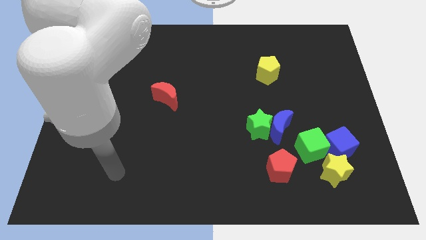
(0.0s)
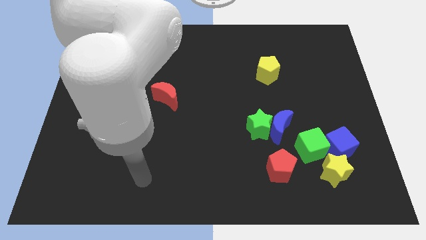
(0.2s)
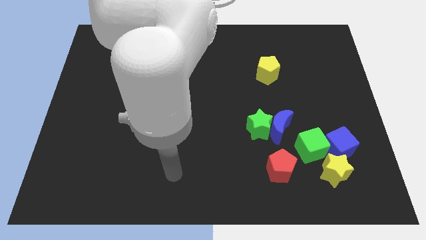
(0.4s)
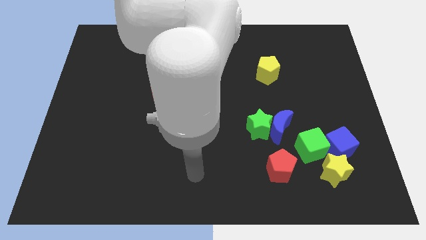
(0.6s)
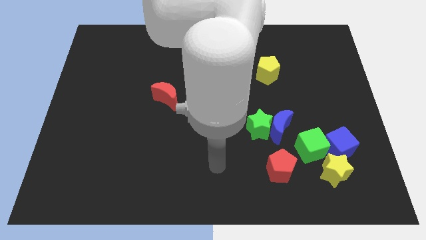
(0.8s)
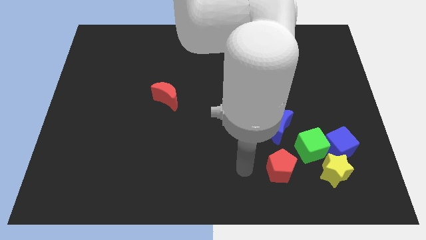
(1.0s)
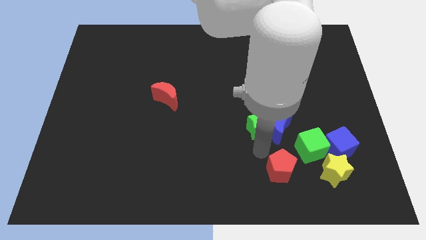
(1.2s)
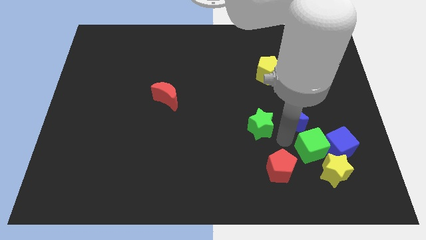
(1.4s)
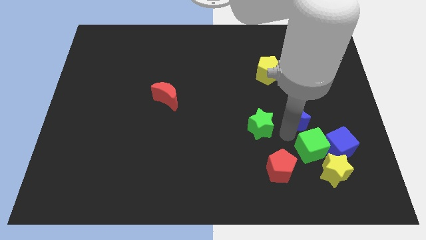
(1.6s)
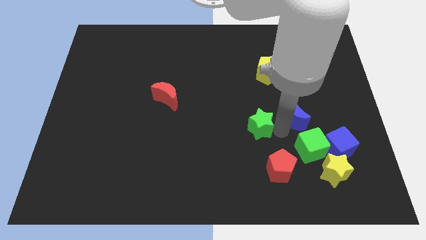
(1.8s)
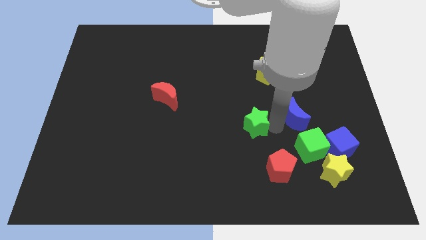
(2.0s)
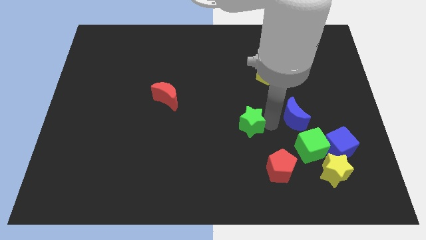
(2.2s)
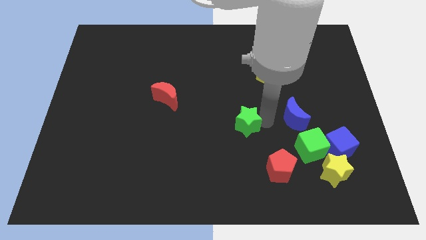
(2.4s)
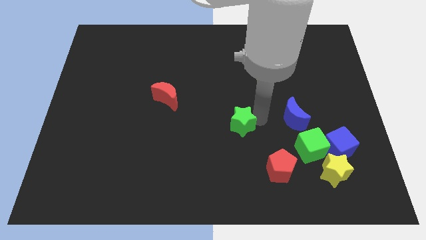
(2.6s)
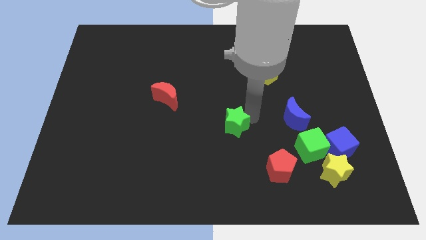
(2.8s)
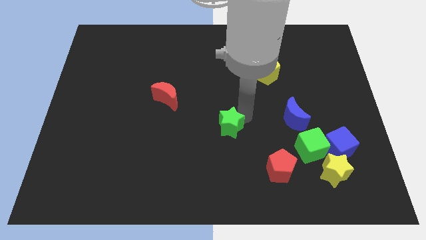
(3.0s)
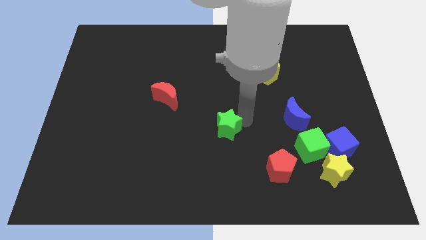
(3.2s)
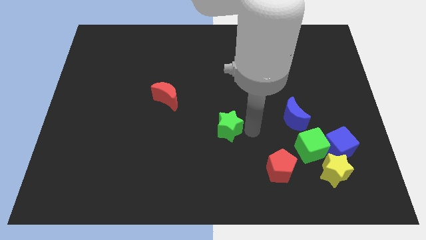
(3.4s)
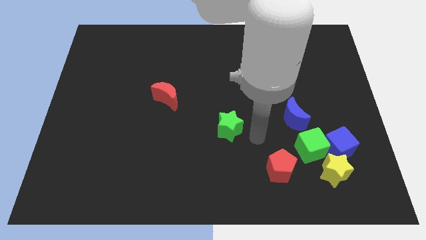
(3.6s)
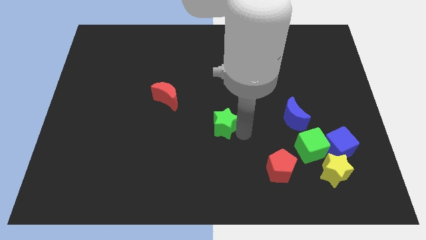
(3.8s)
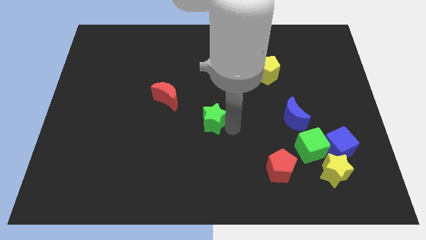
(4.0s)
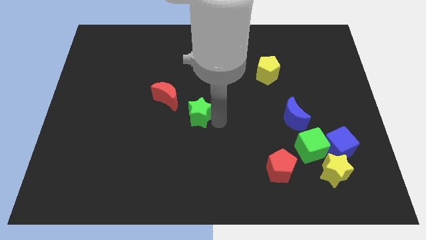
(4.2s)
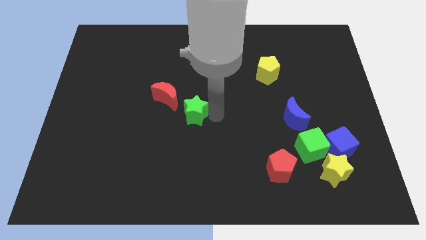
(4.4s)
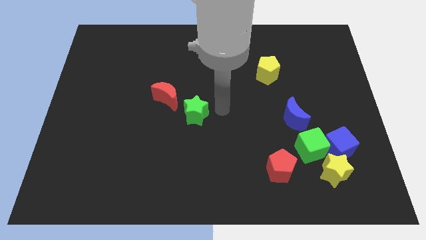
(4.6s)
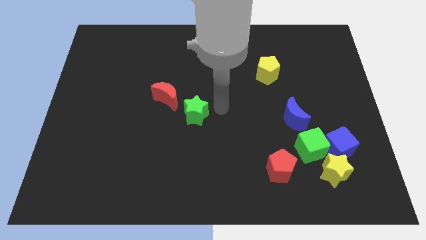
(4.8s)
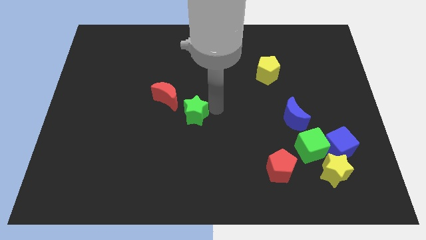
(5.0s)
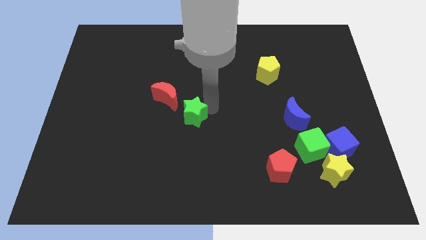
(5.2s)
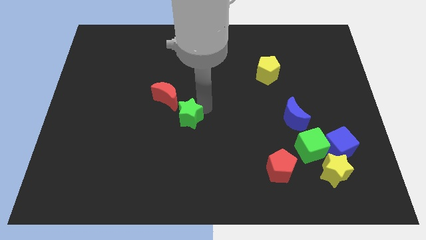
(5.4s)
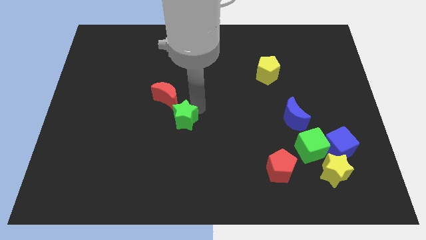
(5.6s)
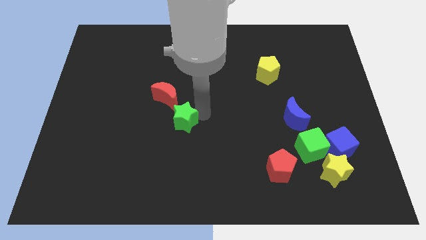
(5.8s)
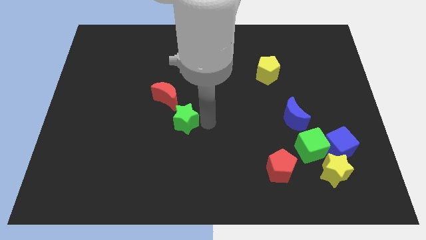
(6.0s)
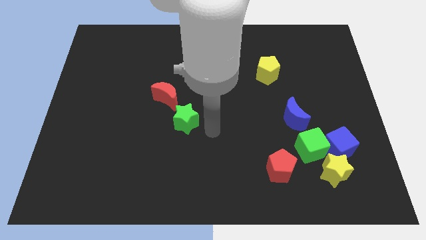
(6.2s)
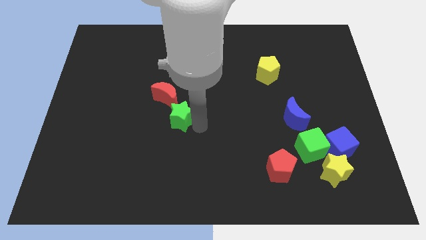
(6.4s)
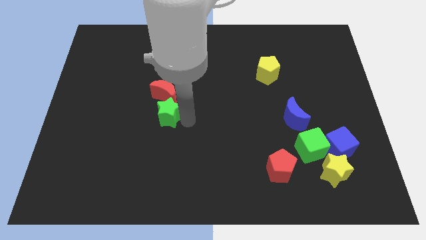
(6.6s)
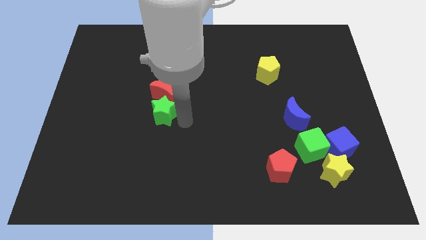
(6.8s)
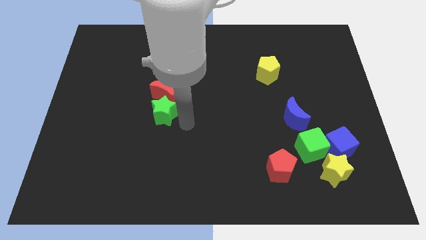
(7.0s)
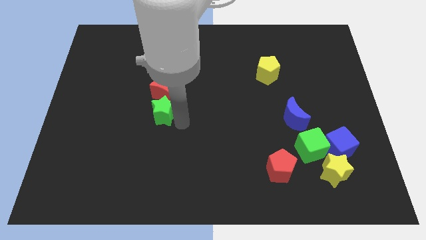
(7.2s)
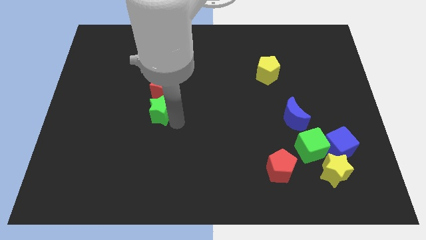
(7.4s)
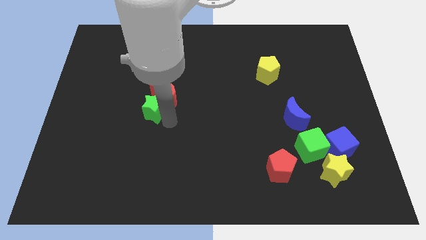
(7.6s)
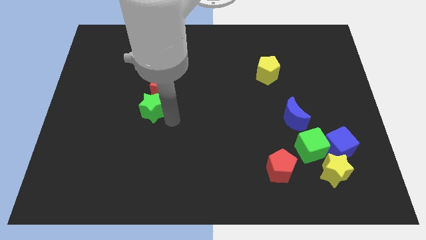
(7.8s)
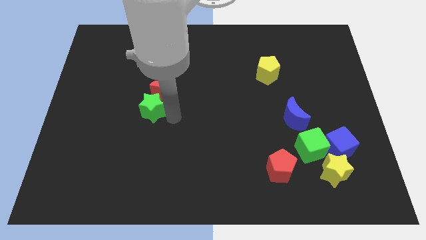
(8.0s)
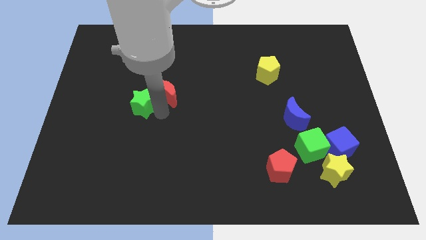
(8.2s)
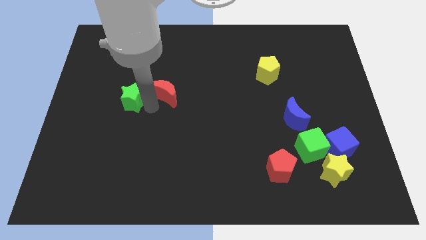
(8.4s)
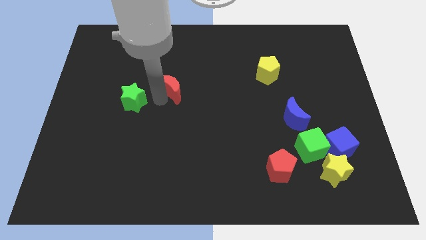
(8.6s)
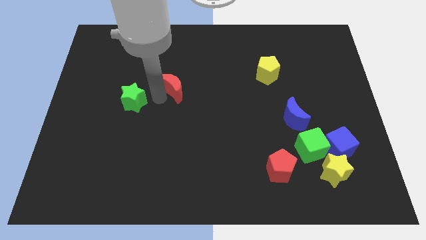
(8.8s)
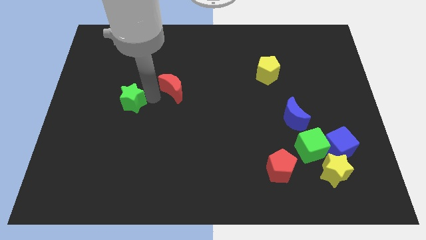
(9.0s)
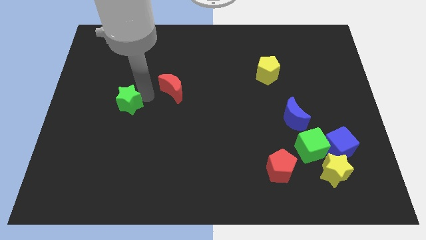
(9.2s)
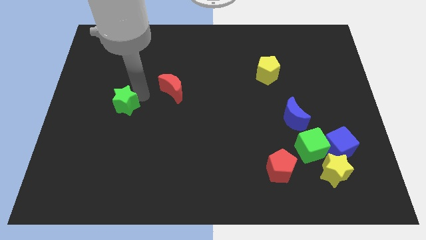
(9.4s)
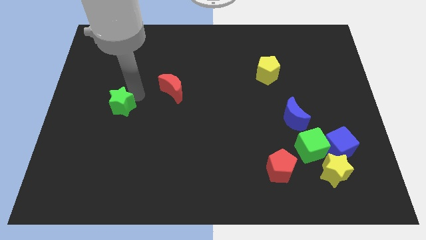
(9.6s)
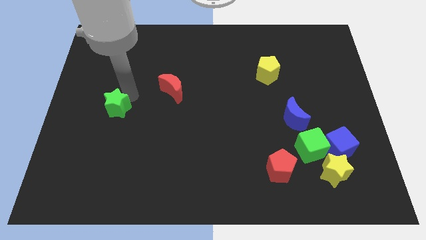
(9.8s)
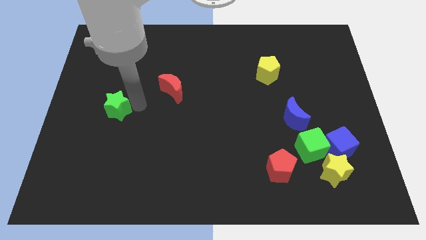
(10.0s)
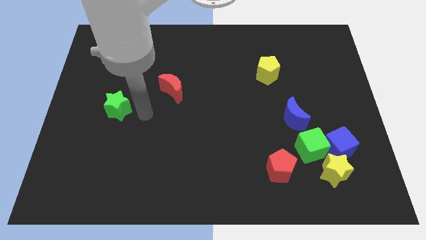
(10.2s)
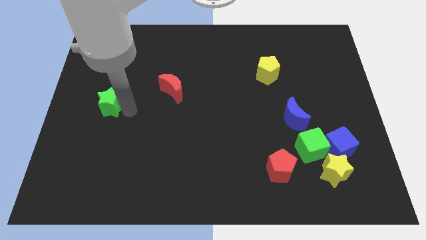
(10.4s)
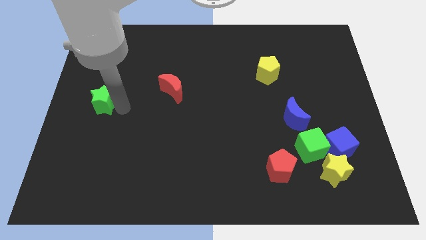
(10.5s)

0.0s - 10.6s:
move the green star to the left side

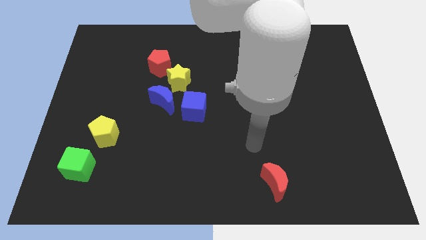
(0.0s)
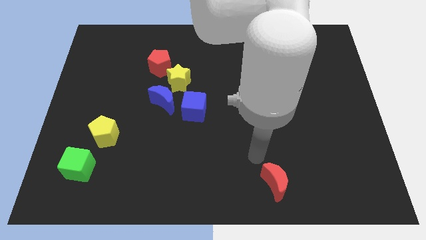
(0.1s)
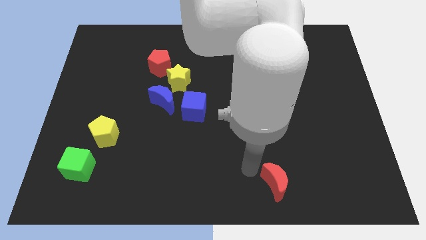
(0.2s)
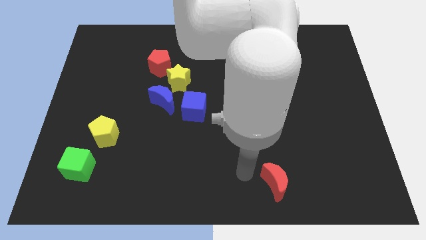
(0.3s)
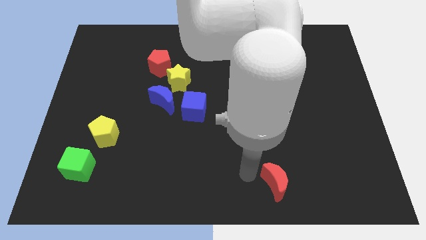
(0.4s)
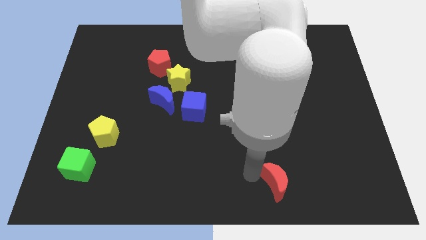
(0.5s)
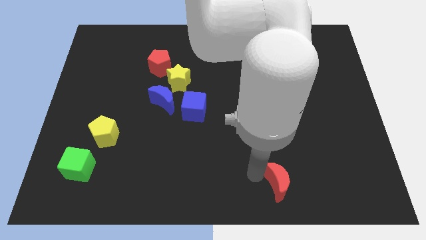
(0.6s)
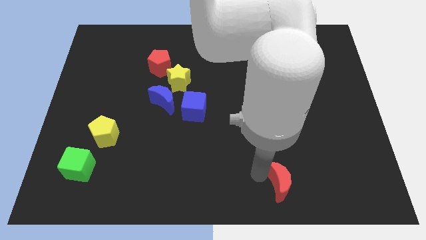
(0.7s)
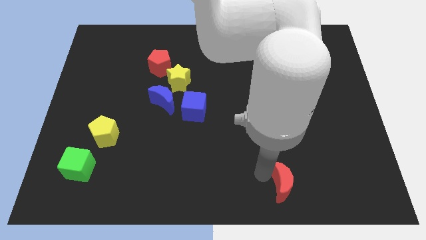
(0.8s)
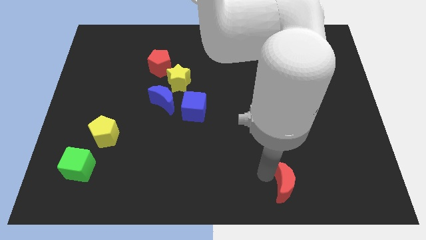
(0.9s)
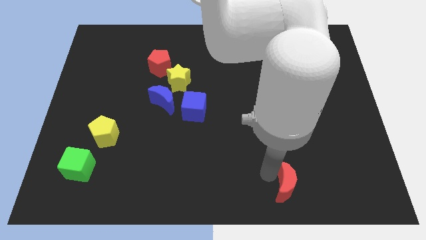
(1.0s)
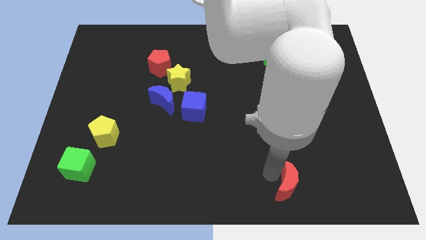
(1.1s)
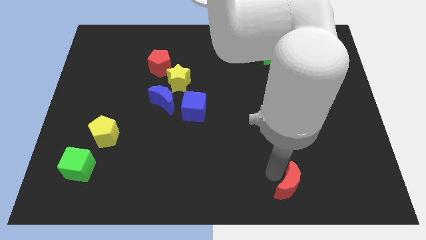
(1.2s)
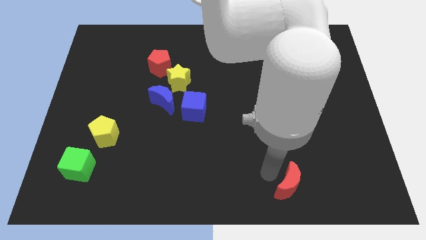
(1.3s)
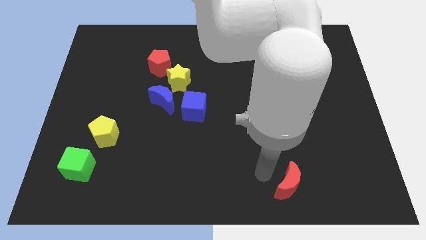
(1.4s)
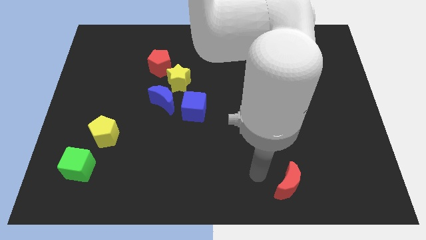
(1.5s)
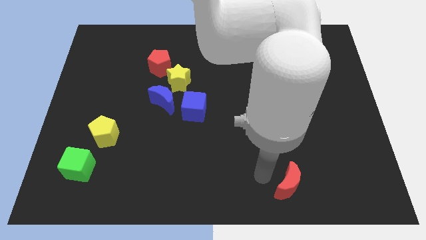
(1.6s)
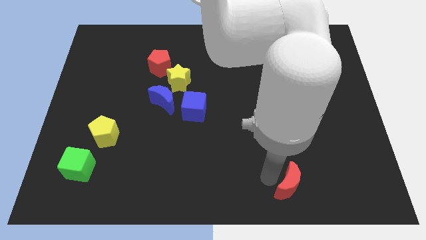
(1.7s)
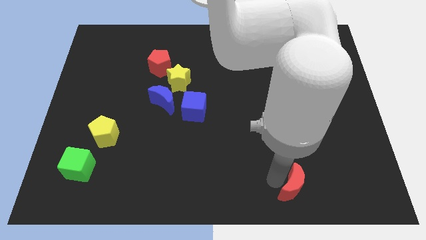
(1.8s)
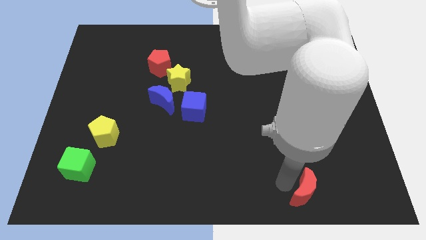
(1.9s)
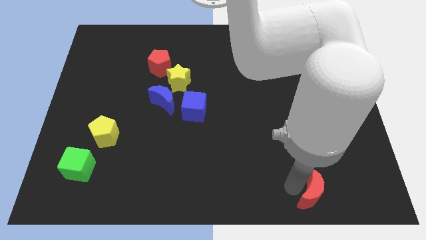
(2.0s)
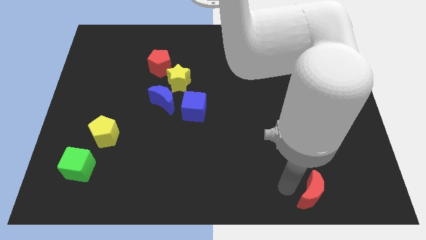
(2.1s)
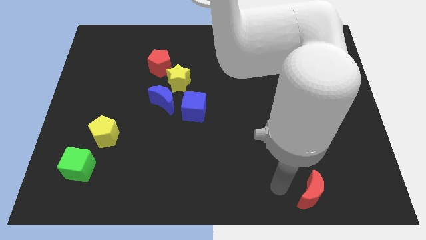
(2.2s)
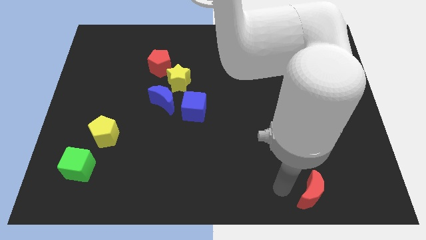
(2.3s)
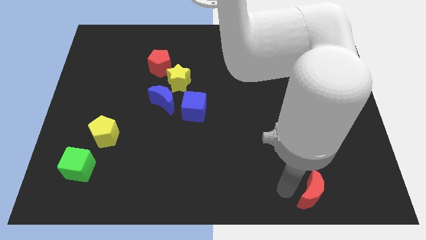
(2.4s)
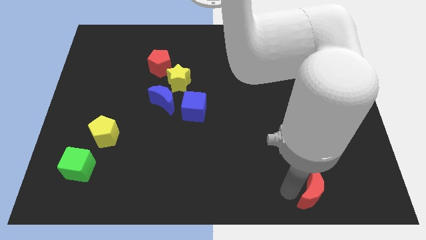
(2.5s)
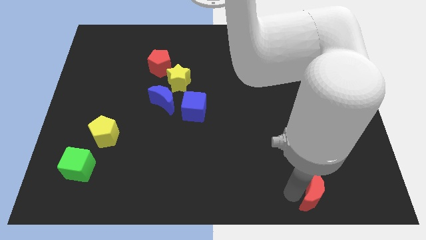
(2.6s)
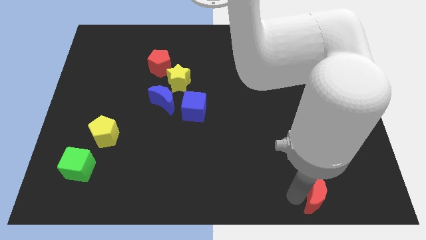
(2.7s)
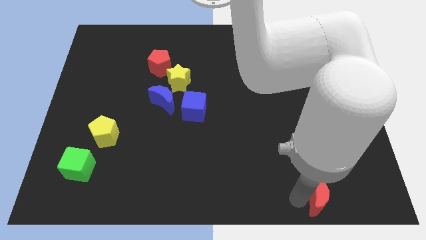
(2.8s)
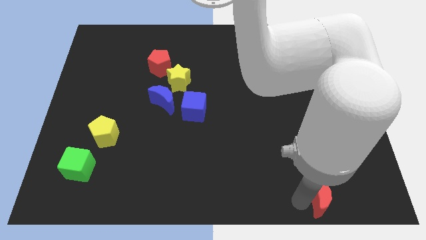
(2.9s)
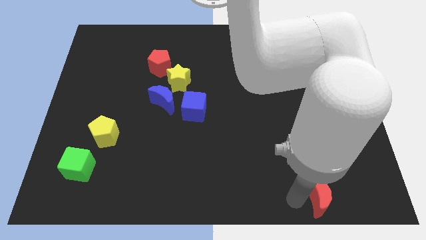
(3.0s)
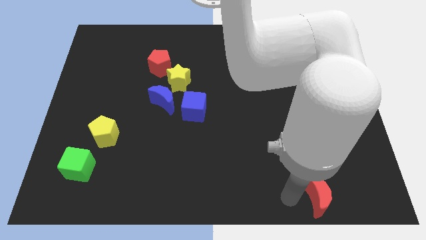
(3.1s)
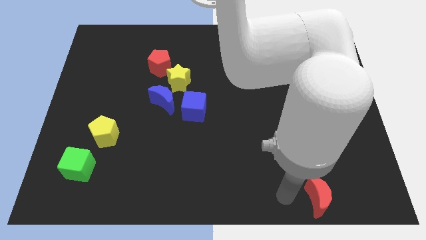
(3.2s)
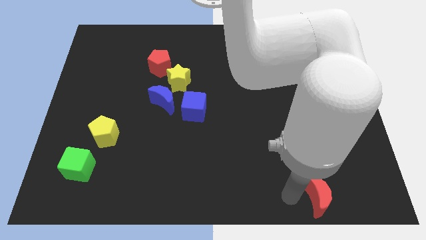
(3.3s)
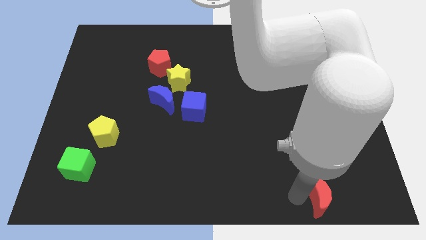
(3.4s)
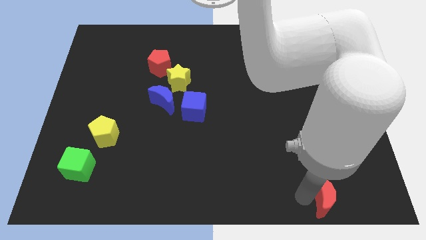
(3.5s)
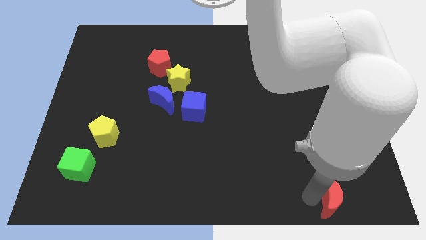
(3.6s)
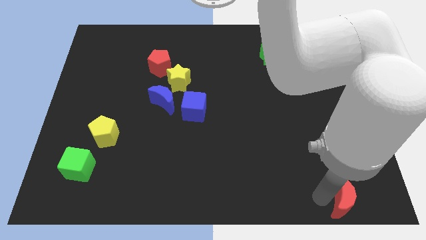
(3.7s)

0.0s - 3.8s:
put the red moon to the bottom right
